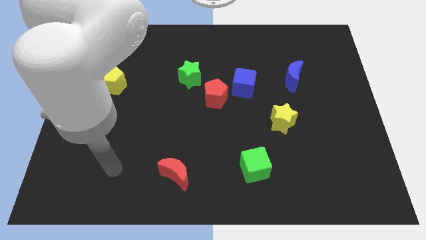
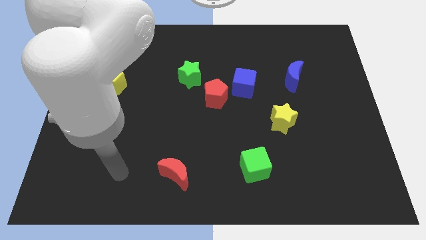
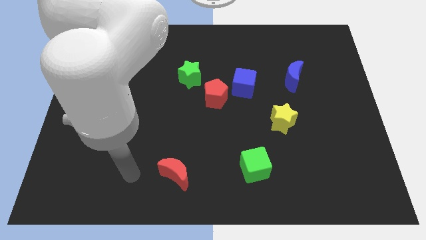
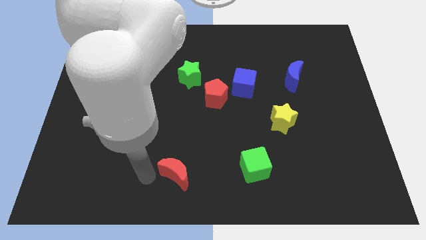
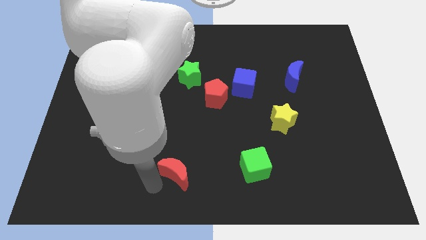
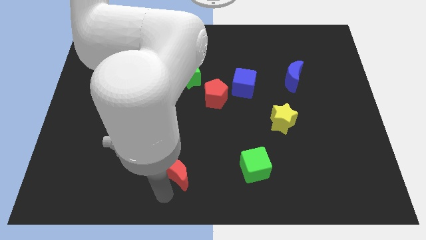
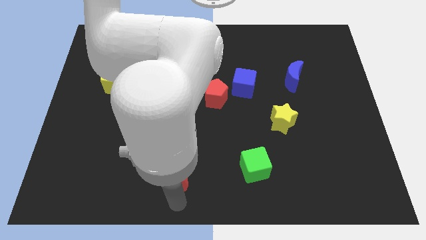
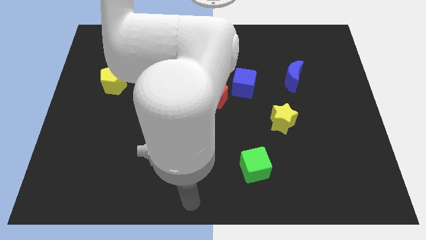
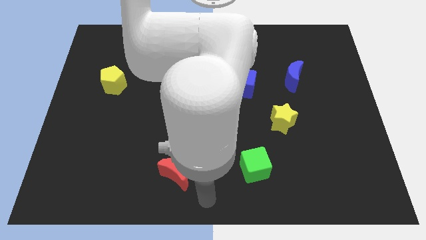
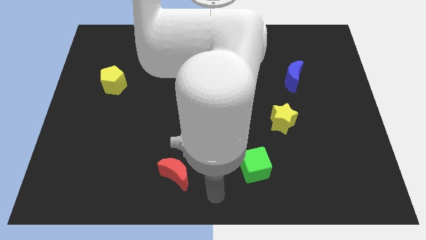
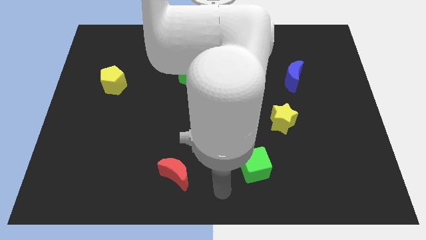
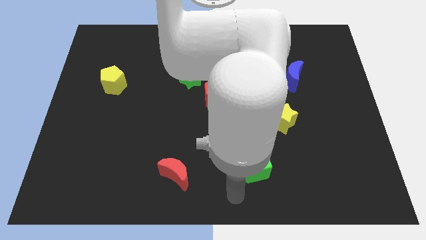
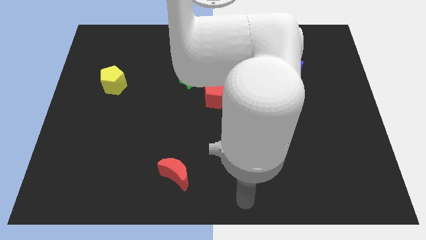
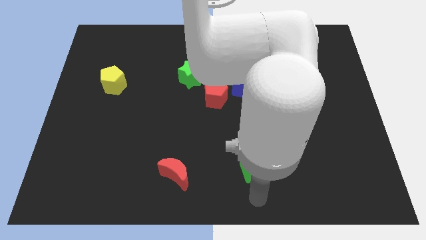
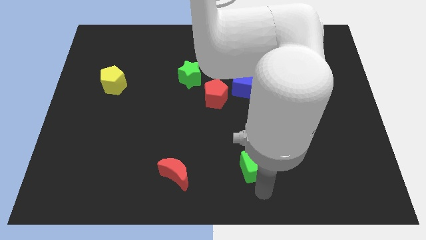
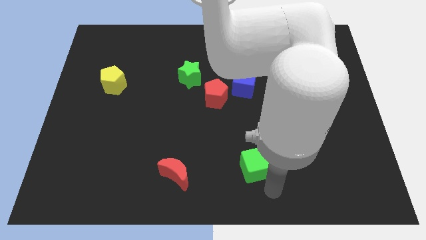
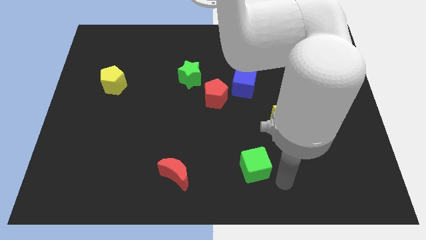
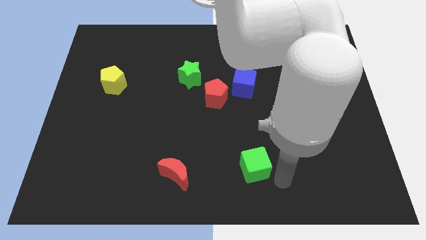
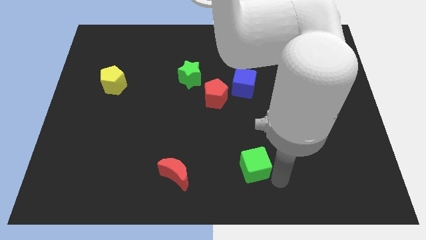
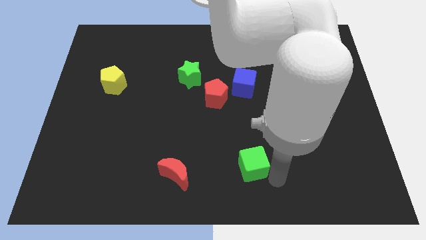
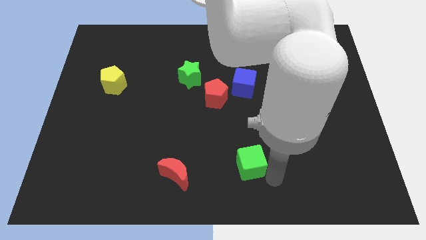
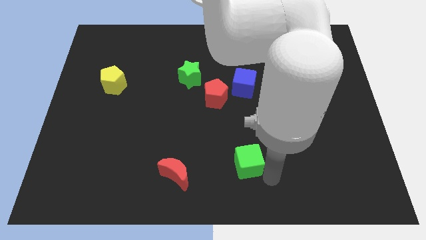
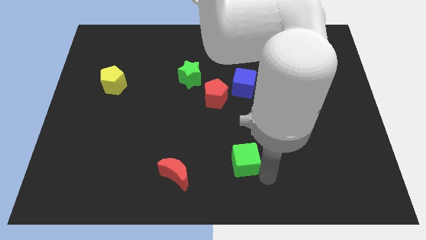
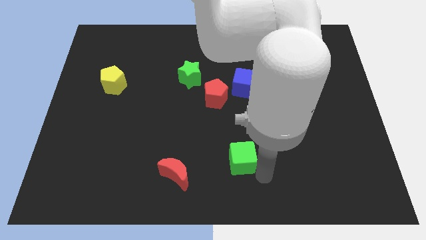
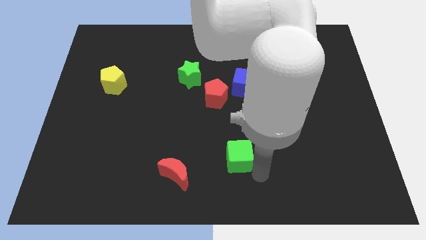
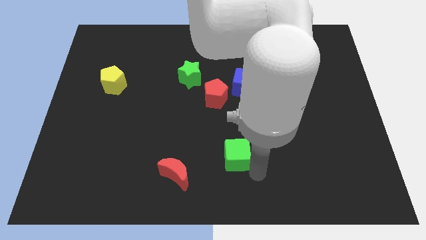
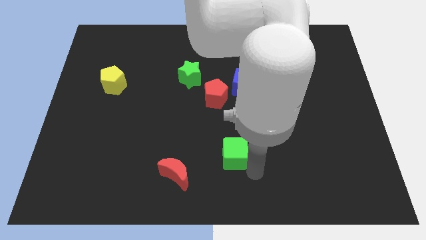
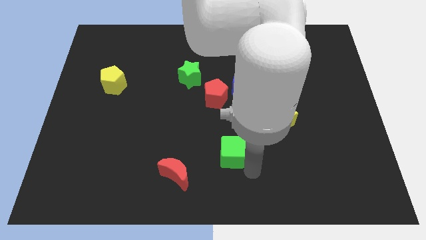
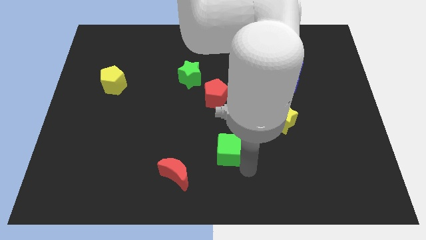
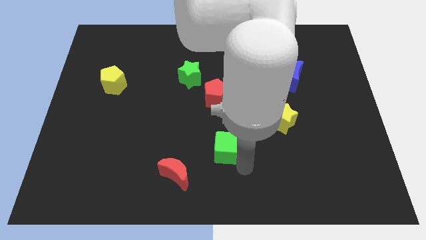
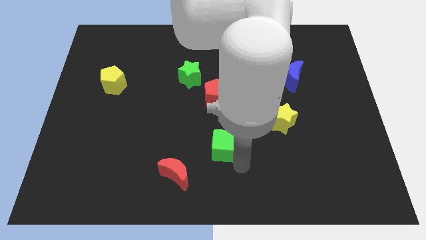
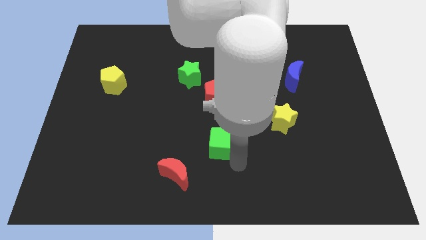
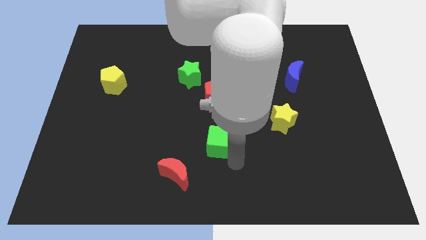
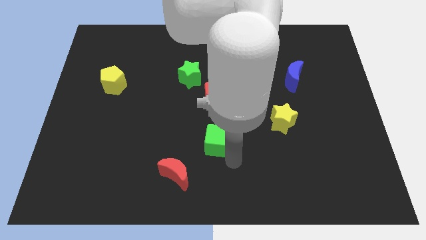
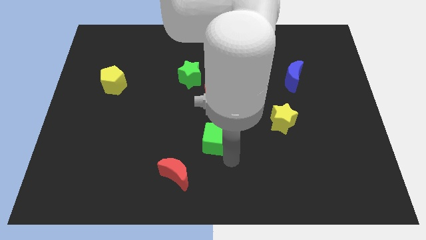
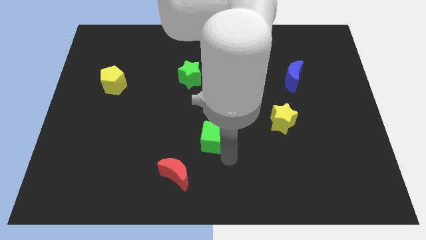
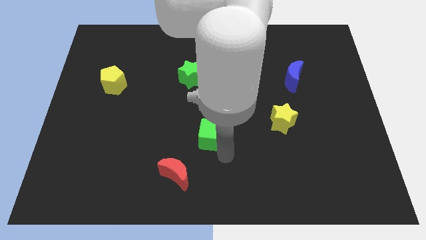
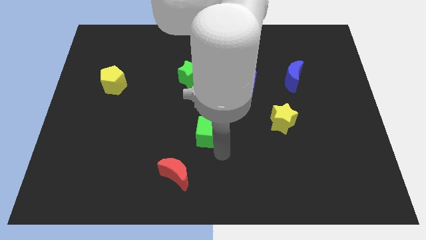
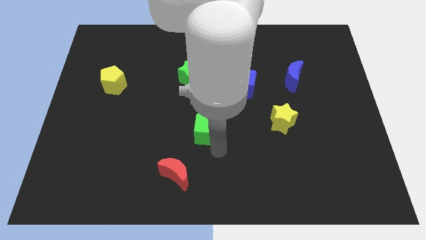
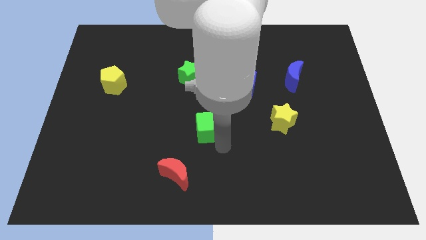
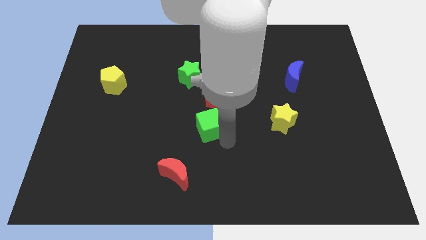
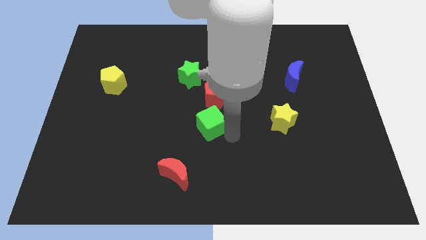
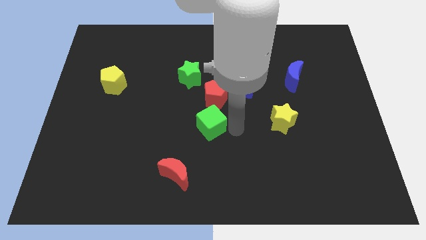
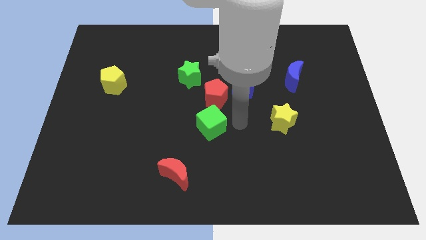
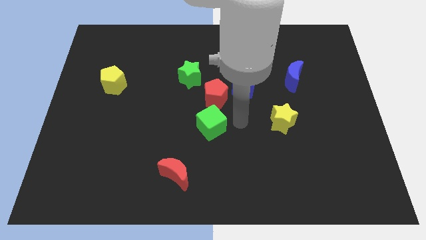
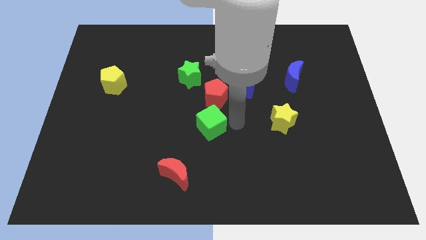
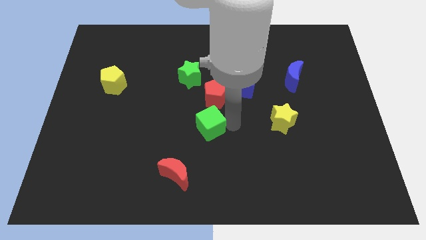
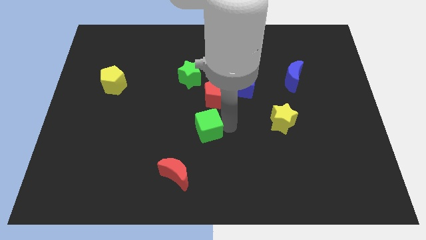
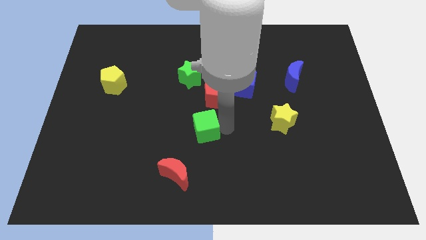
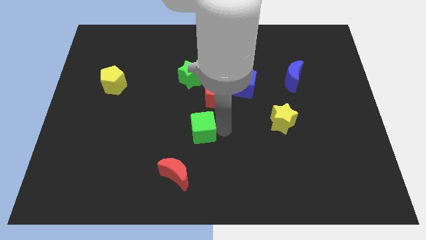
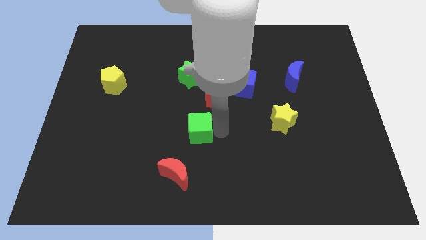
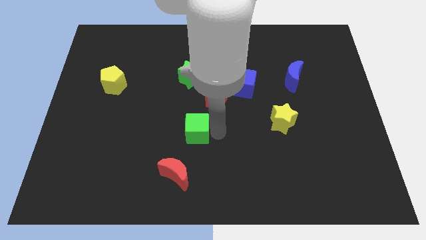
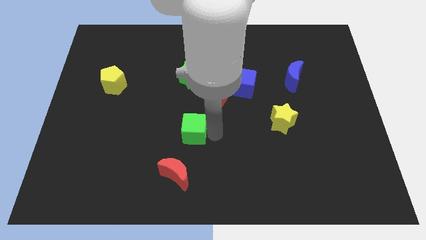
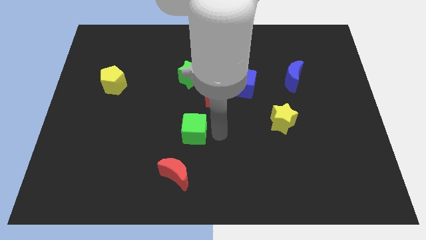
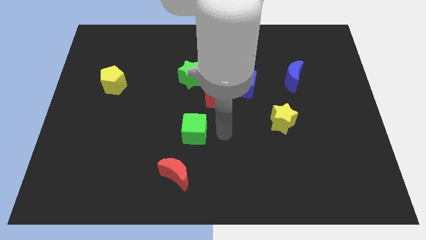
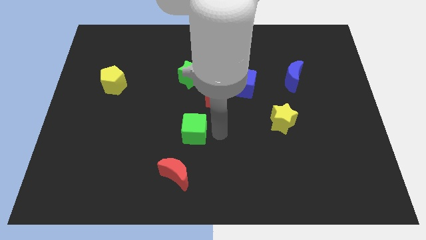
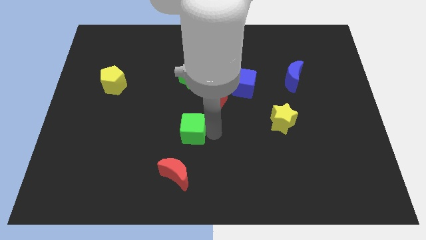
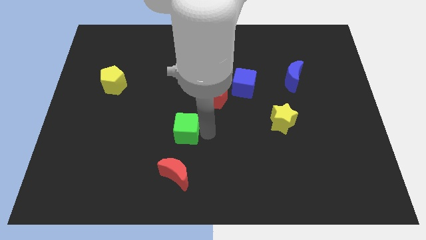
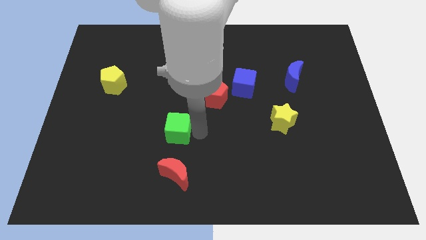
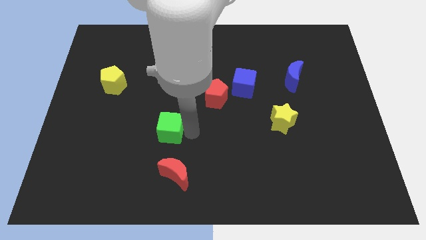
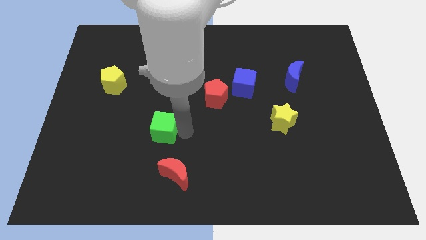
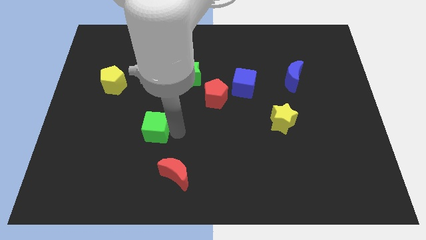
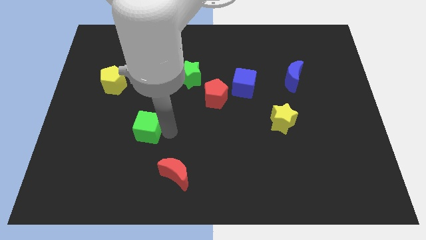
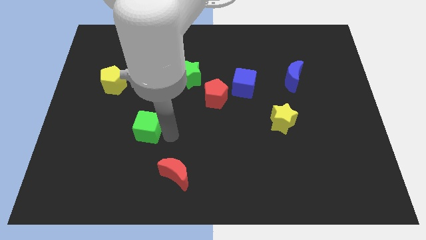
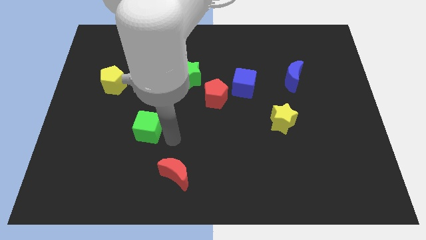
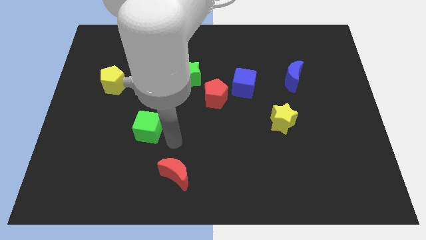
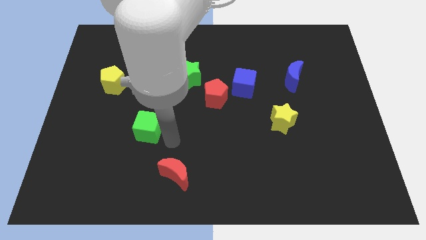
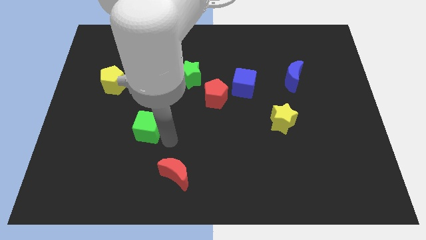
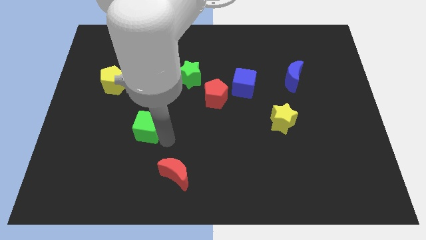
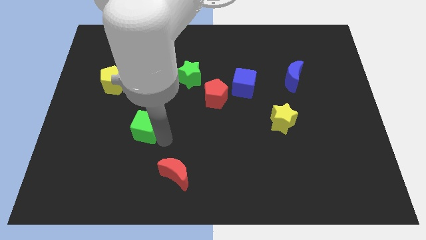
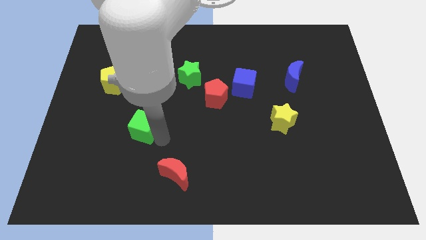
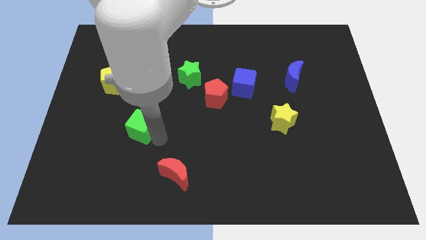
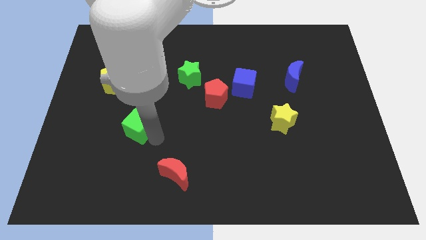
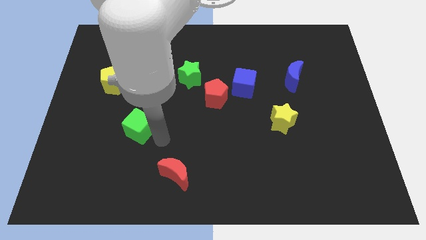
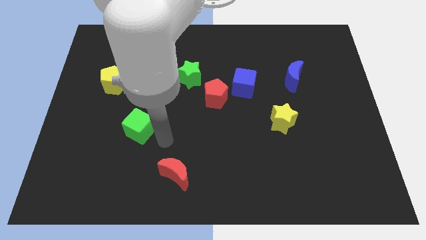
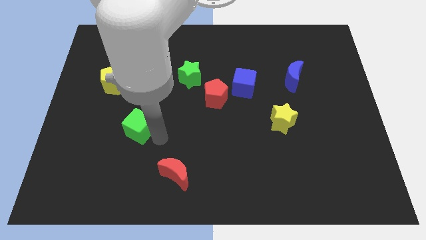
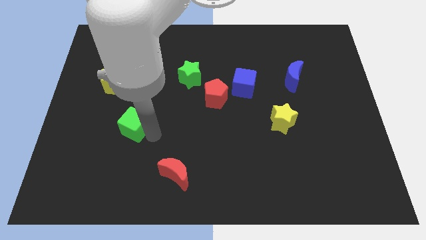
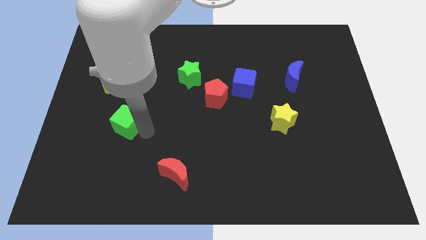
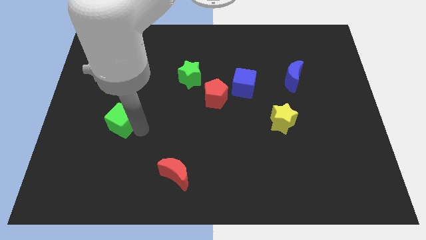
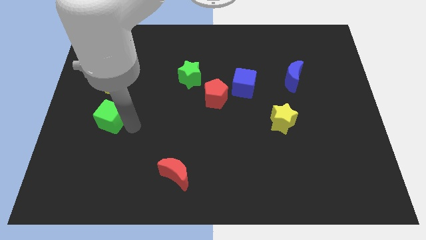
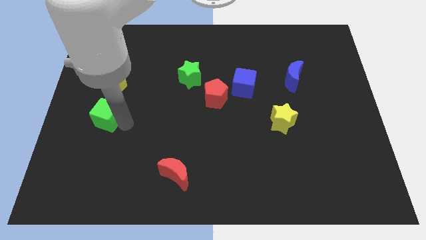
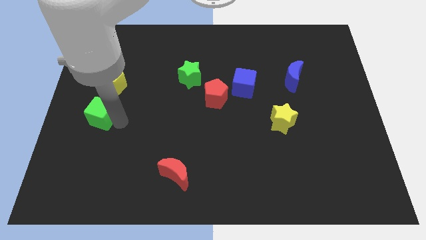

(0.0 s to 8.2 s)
slide the green cube to the left side of the board
